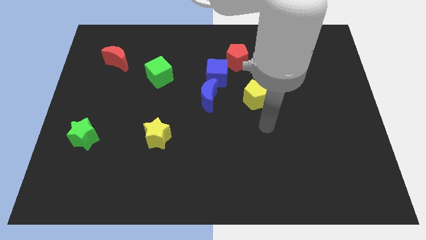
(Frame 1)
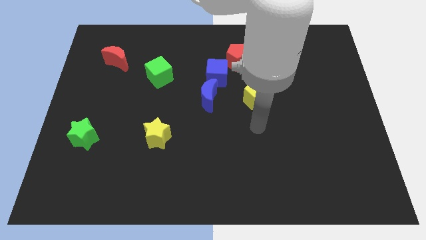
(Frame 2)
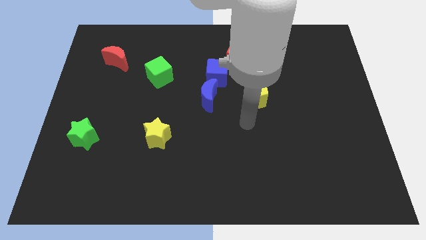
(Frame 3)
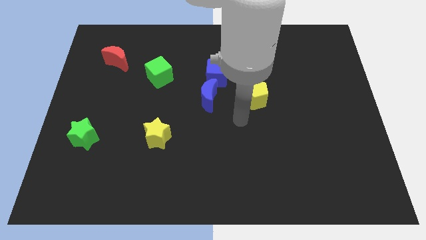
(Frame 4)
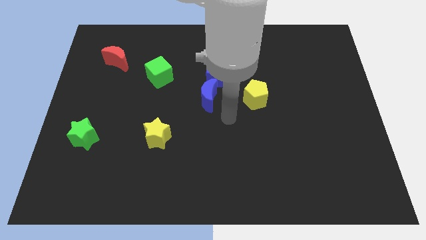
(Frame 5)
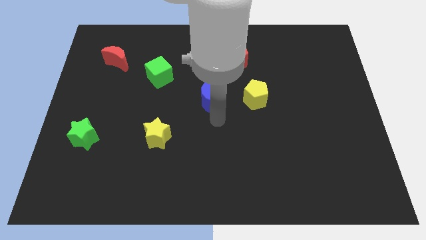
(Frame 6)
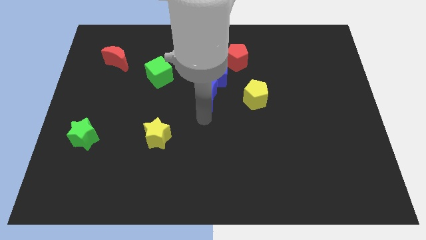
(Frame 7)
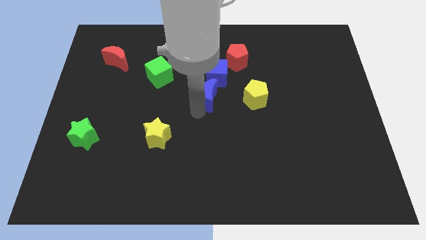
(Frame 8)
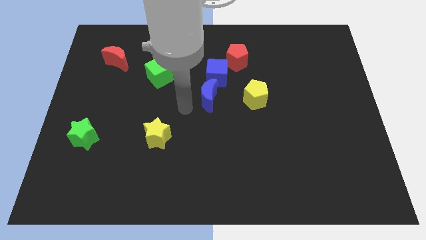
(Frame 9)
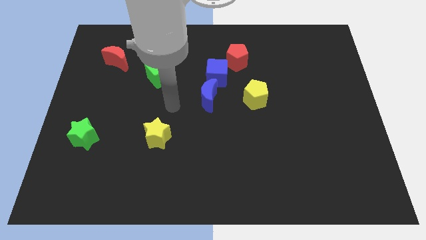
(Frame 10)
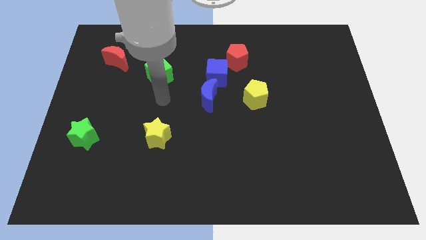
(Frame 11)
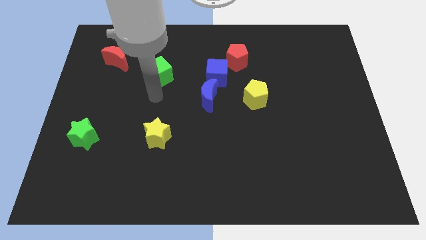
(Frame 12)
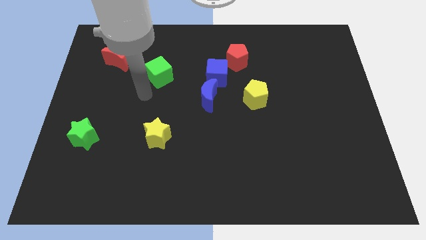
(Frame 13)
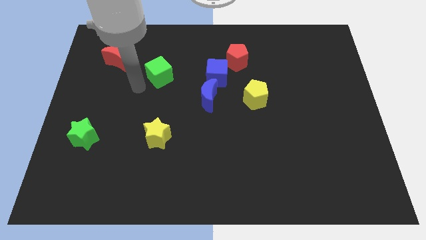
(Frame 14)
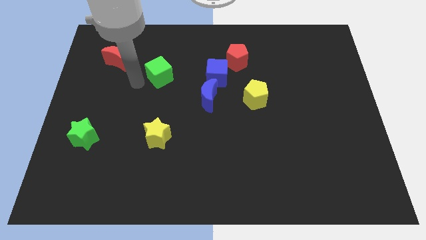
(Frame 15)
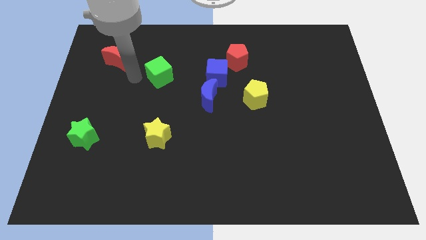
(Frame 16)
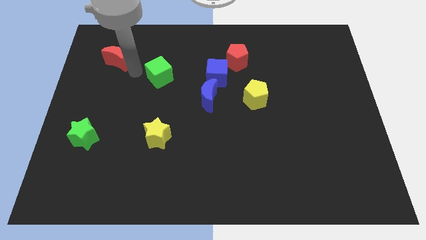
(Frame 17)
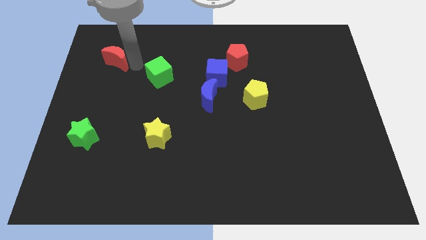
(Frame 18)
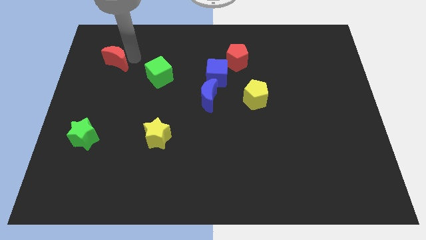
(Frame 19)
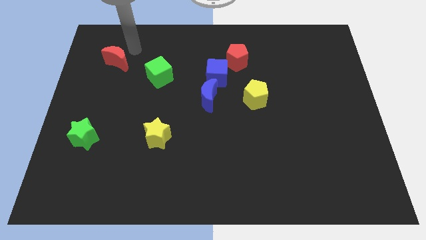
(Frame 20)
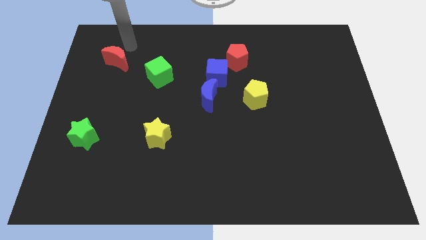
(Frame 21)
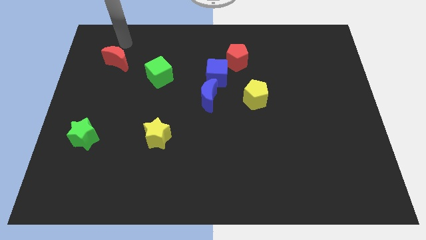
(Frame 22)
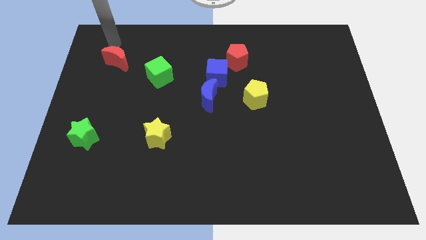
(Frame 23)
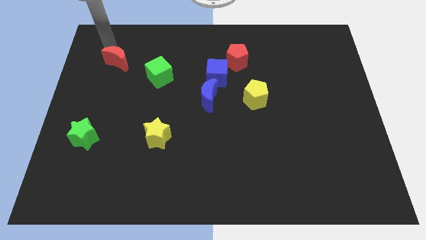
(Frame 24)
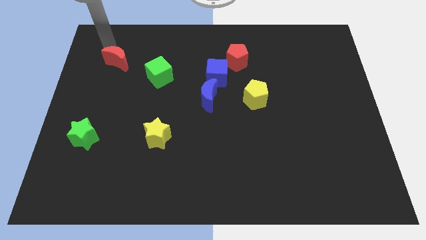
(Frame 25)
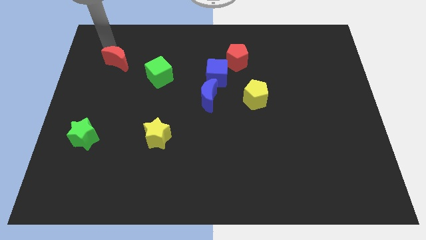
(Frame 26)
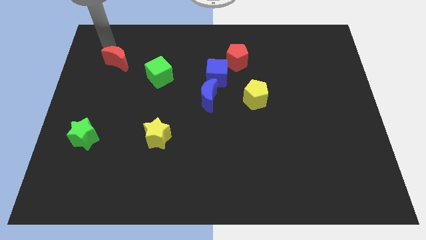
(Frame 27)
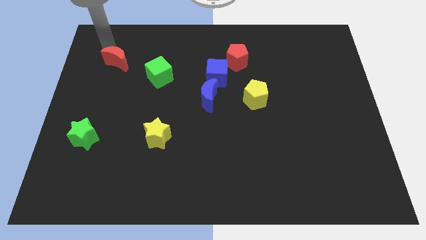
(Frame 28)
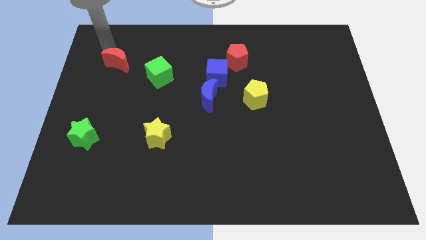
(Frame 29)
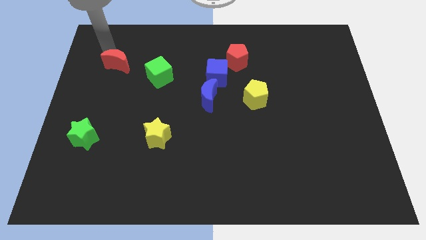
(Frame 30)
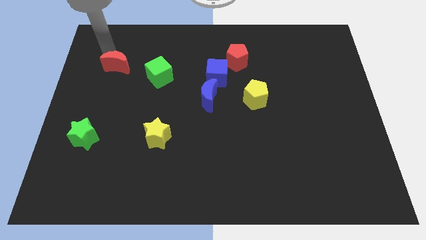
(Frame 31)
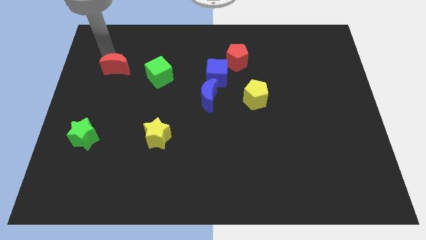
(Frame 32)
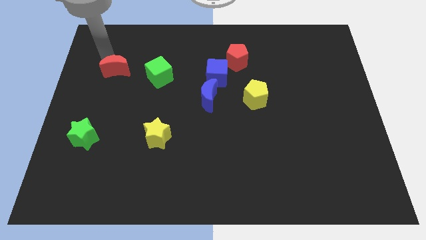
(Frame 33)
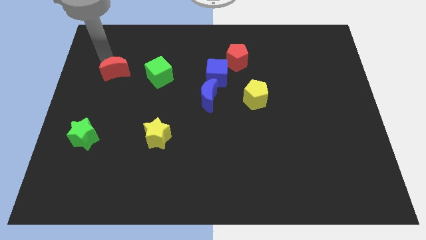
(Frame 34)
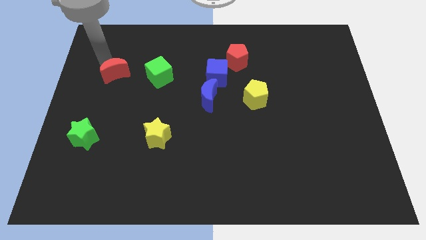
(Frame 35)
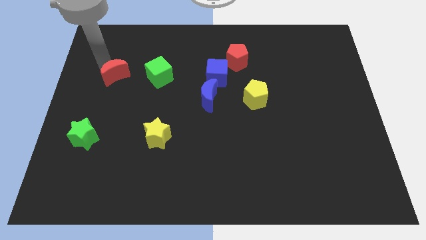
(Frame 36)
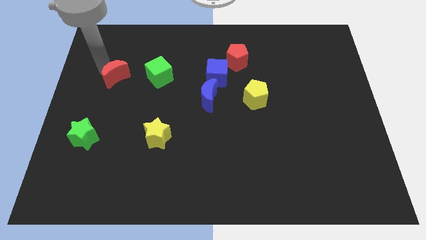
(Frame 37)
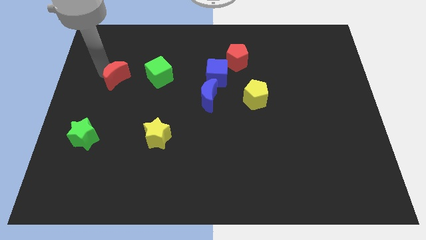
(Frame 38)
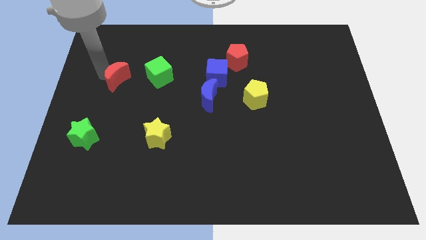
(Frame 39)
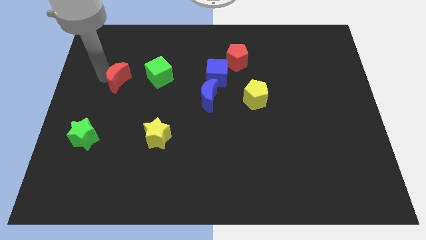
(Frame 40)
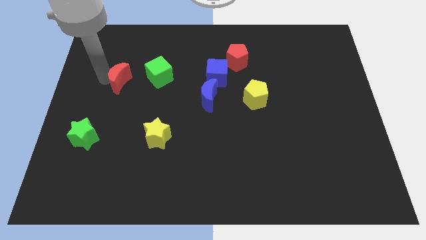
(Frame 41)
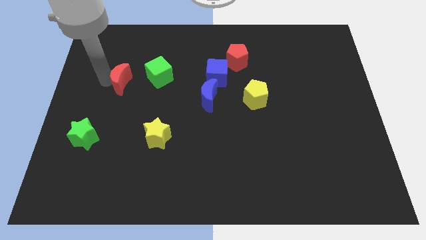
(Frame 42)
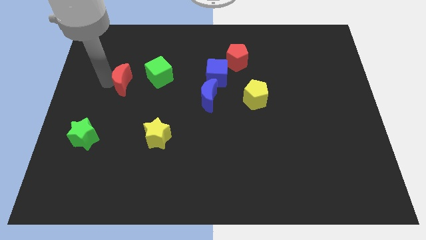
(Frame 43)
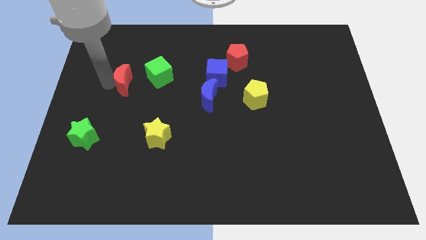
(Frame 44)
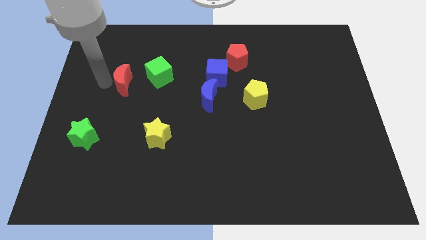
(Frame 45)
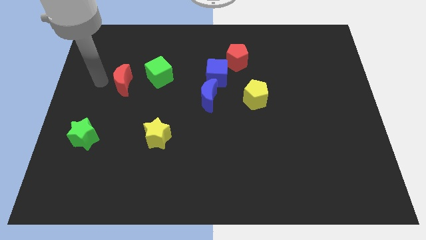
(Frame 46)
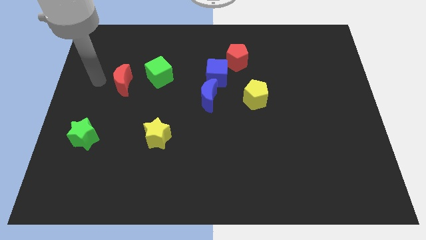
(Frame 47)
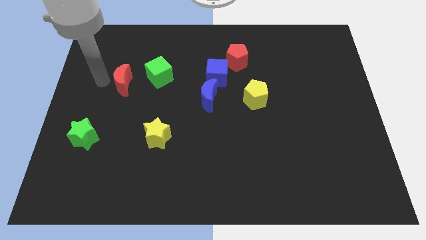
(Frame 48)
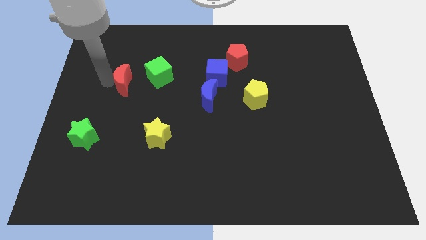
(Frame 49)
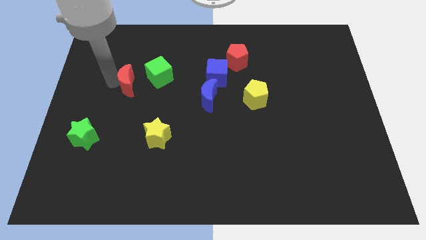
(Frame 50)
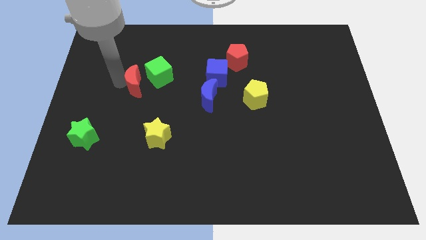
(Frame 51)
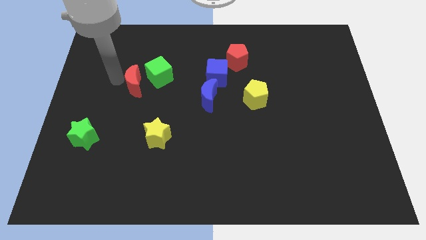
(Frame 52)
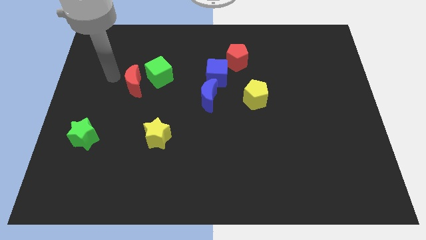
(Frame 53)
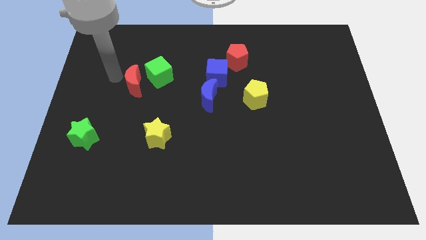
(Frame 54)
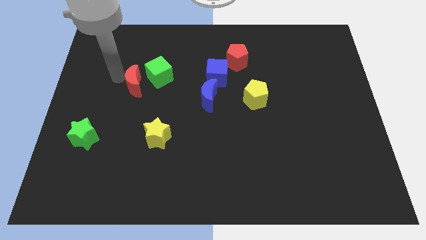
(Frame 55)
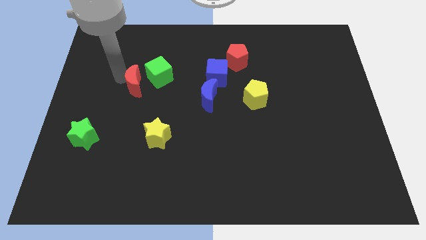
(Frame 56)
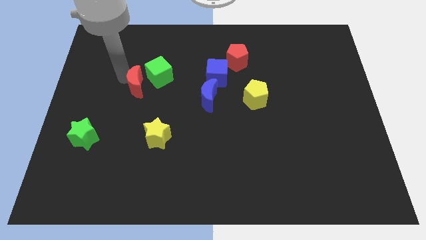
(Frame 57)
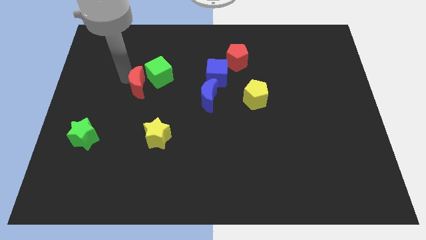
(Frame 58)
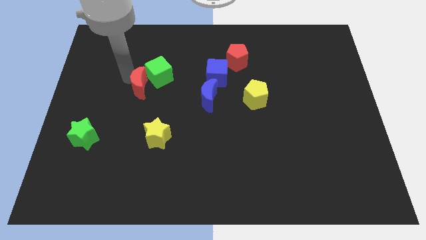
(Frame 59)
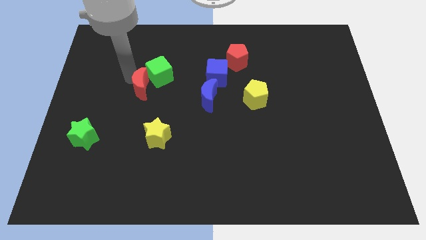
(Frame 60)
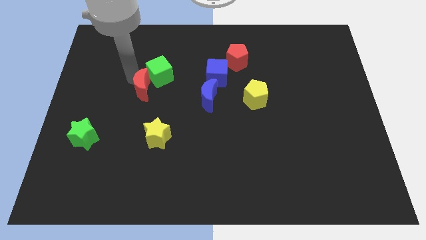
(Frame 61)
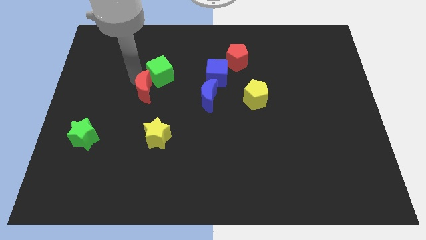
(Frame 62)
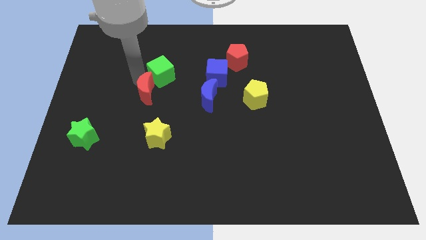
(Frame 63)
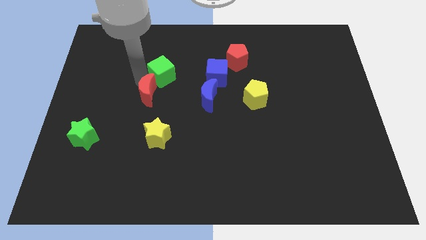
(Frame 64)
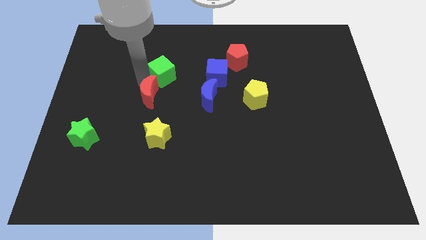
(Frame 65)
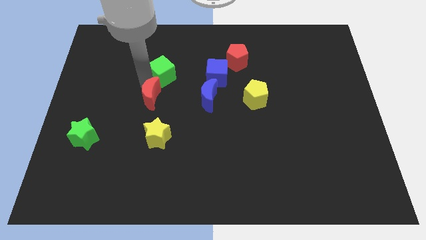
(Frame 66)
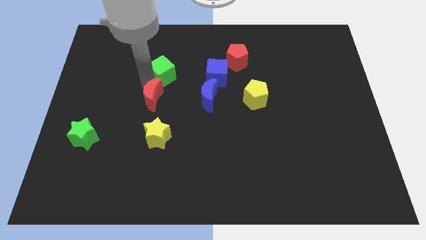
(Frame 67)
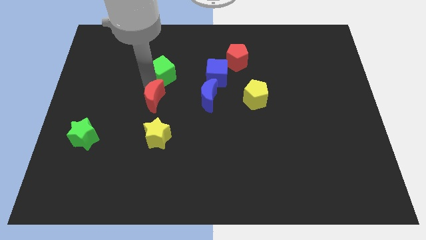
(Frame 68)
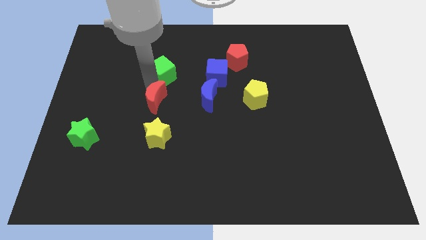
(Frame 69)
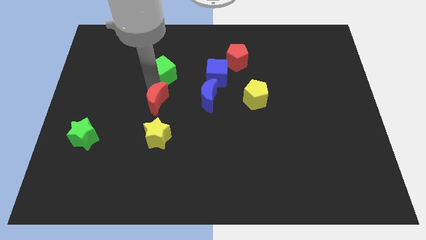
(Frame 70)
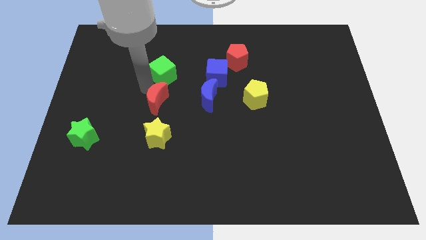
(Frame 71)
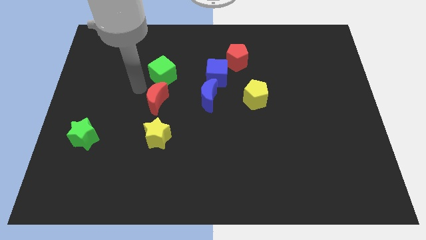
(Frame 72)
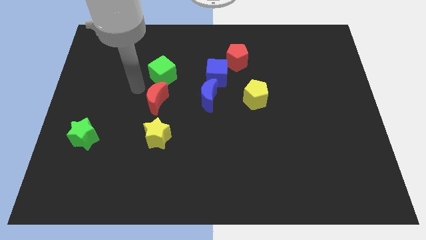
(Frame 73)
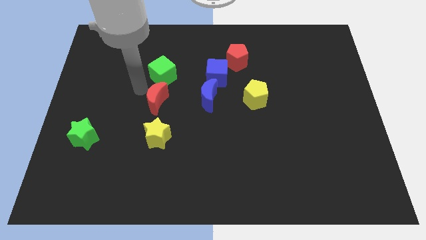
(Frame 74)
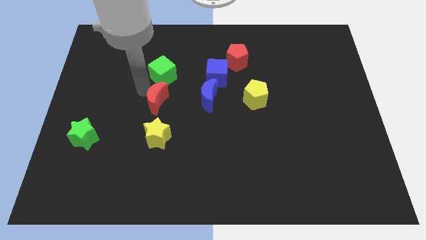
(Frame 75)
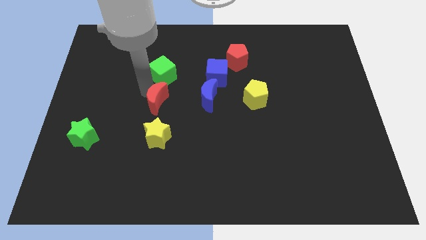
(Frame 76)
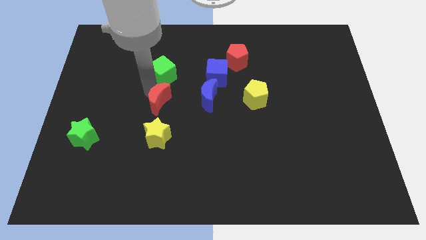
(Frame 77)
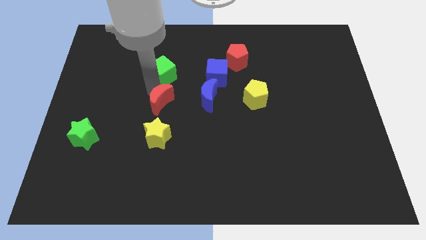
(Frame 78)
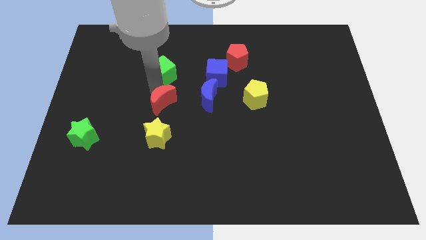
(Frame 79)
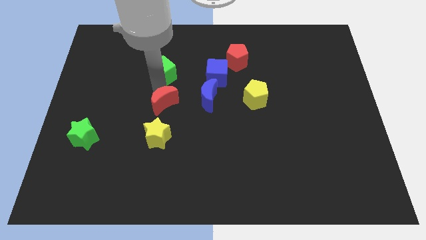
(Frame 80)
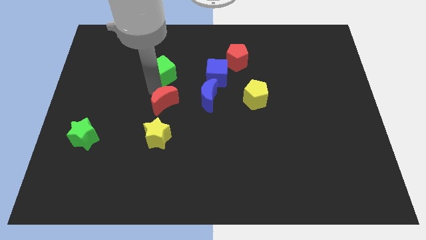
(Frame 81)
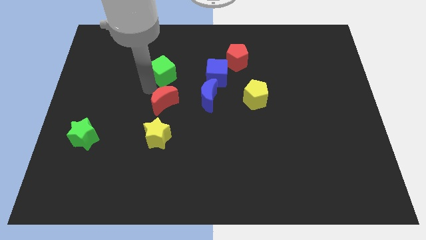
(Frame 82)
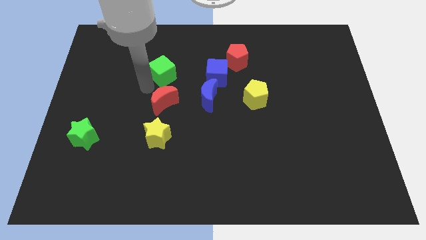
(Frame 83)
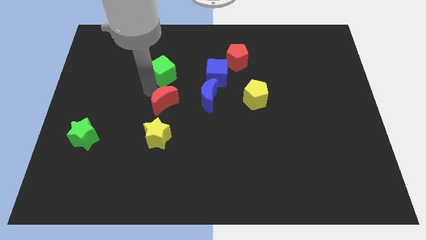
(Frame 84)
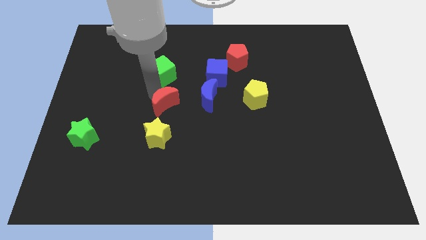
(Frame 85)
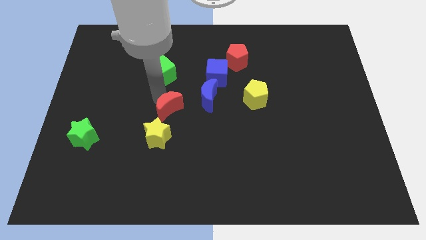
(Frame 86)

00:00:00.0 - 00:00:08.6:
slide the red moon to the top right of the yellow star
